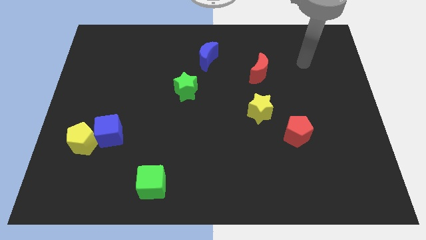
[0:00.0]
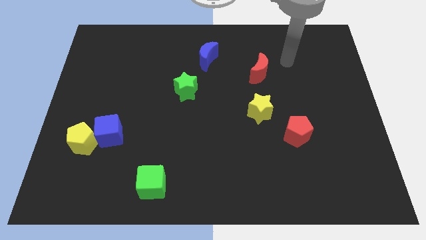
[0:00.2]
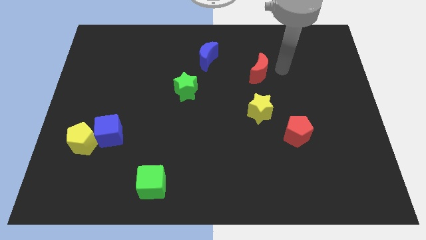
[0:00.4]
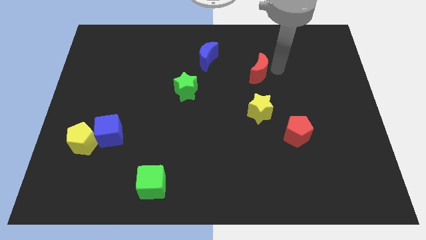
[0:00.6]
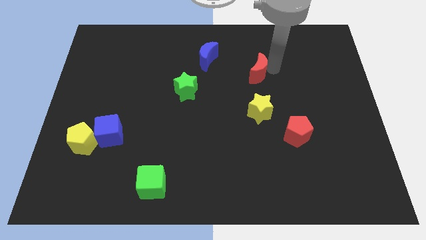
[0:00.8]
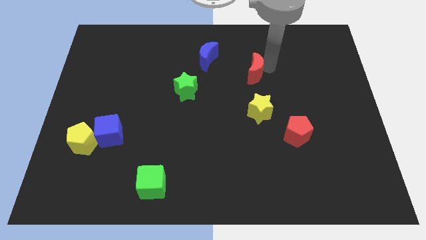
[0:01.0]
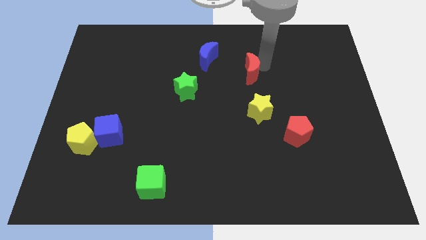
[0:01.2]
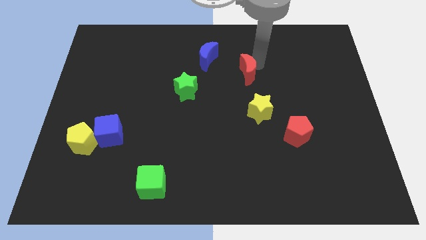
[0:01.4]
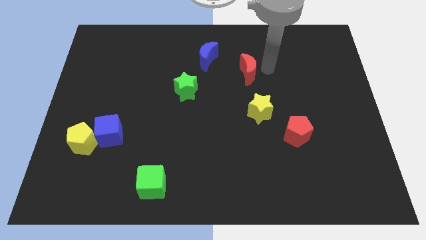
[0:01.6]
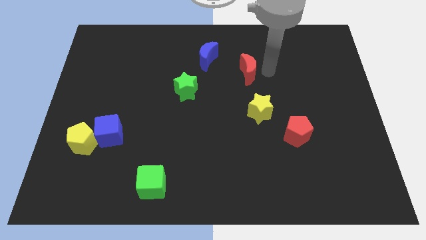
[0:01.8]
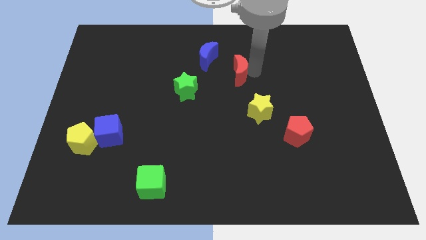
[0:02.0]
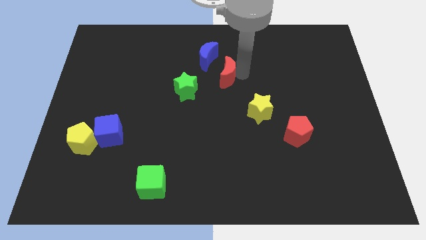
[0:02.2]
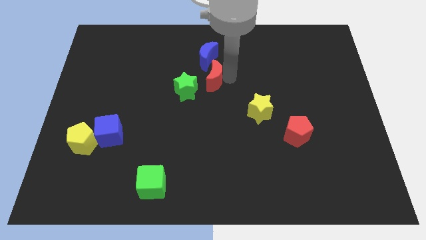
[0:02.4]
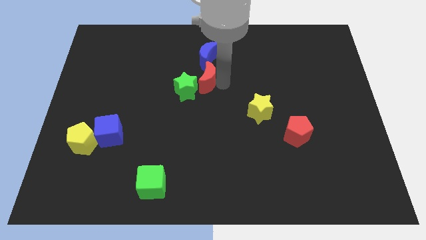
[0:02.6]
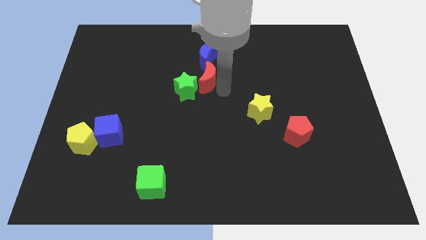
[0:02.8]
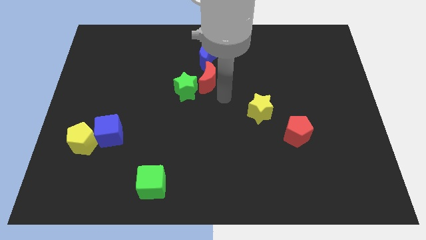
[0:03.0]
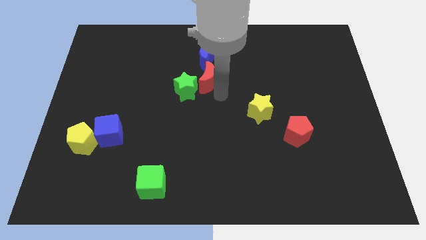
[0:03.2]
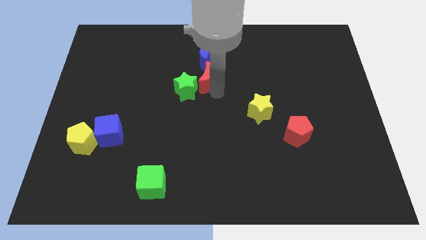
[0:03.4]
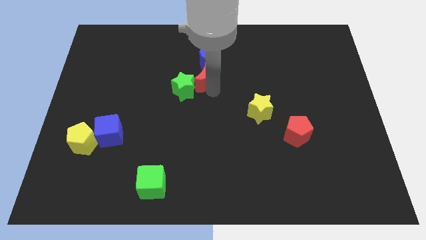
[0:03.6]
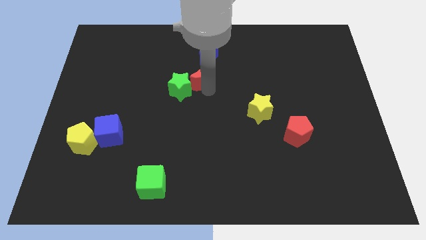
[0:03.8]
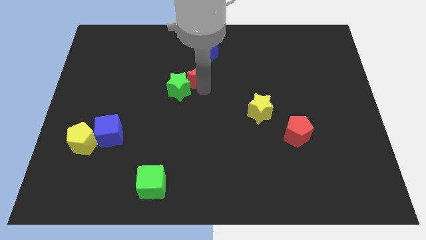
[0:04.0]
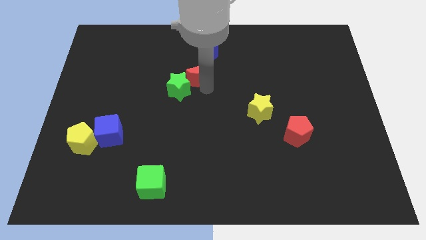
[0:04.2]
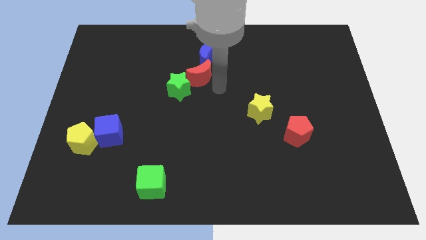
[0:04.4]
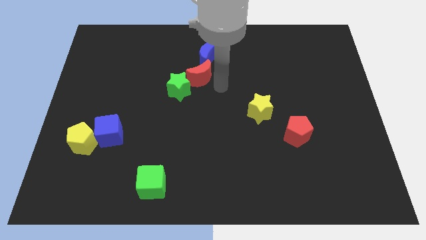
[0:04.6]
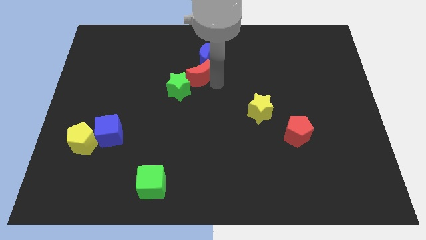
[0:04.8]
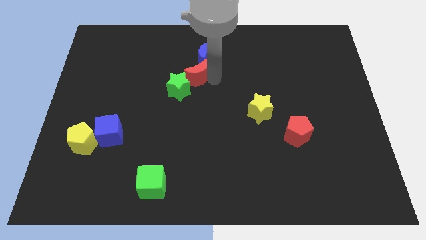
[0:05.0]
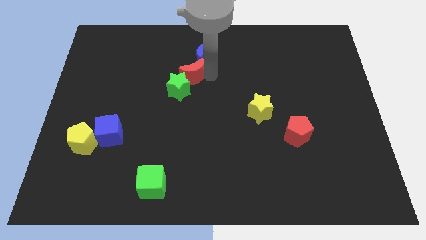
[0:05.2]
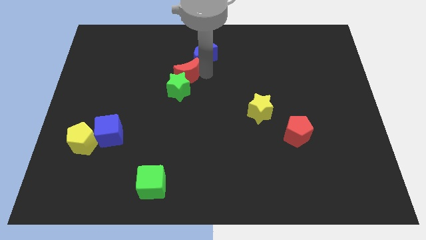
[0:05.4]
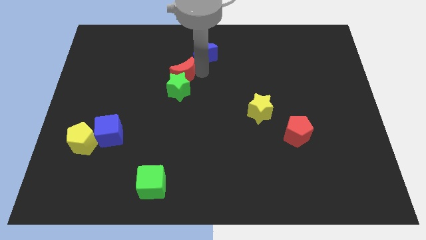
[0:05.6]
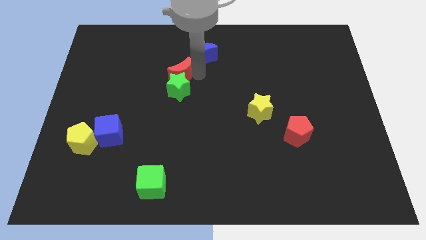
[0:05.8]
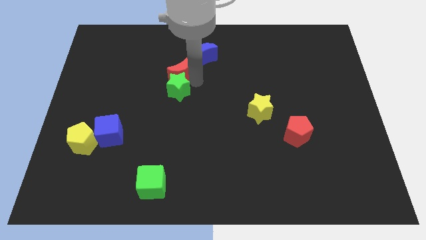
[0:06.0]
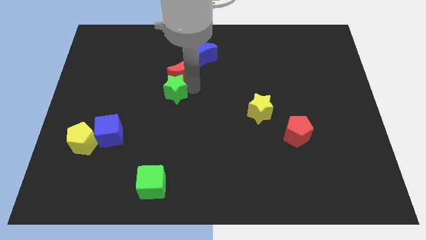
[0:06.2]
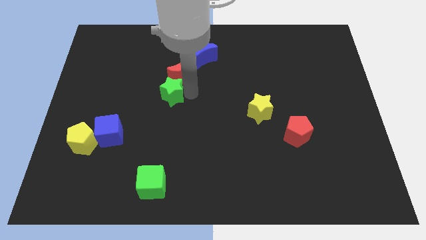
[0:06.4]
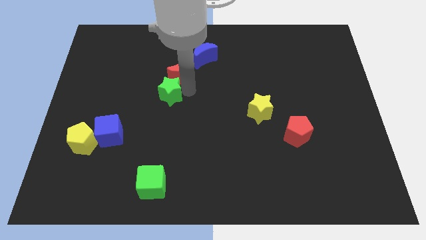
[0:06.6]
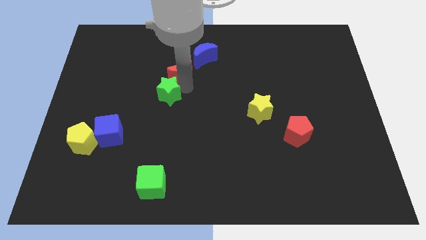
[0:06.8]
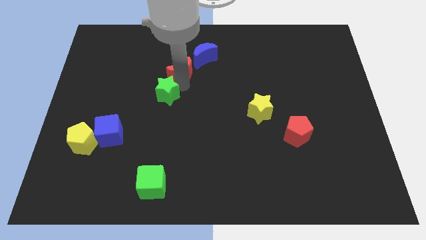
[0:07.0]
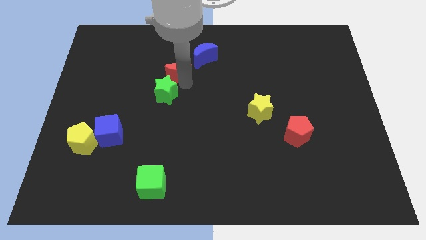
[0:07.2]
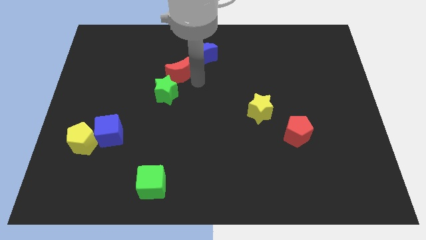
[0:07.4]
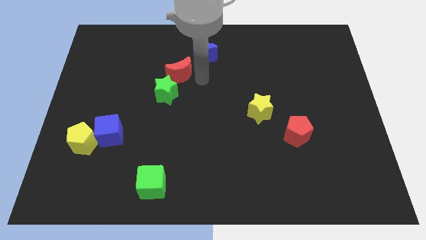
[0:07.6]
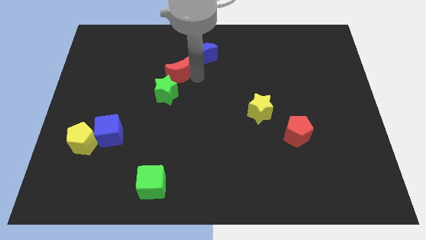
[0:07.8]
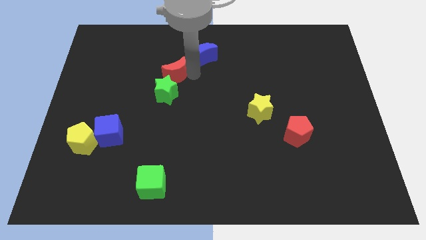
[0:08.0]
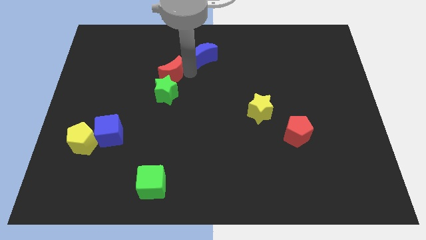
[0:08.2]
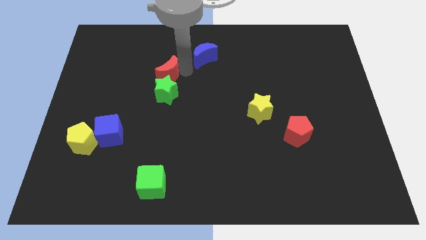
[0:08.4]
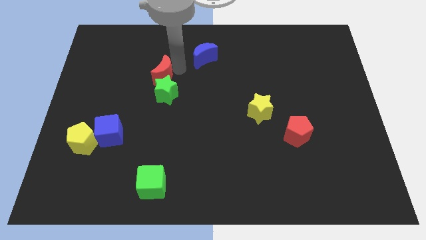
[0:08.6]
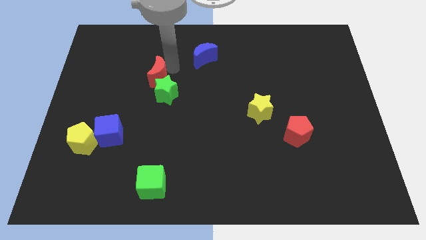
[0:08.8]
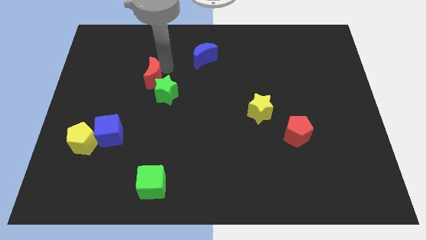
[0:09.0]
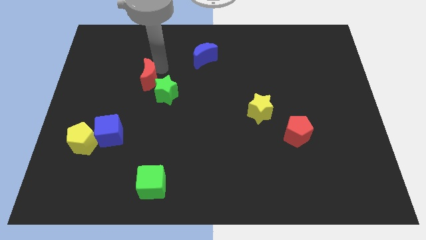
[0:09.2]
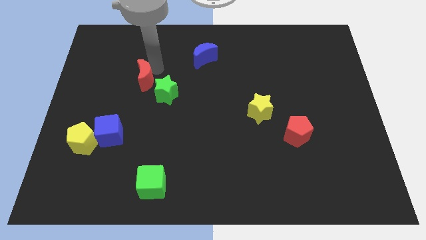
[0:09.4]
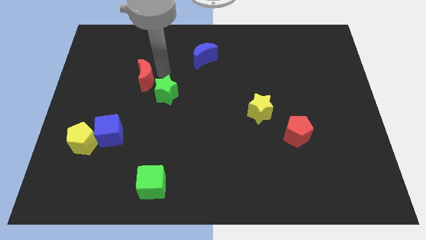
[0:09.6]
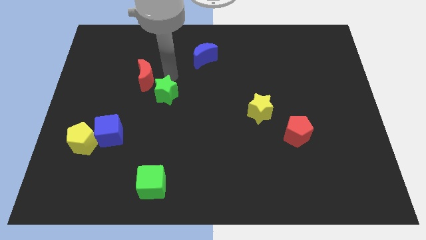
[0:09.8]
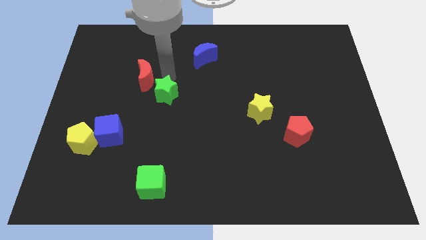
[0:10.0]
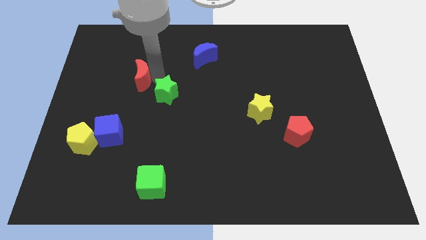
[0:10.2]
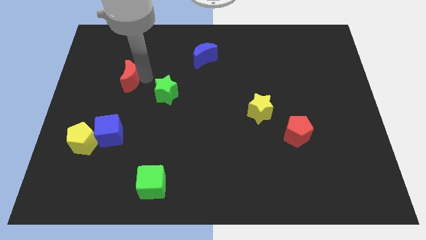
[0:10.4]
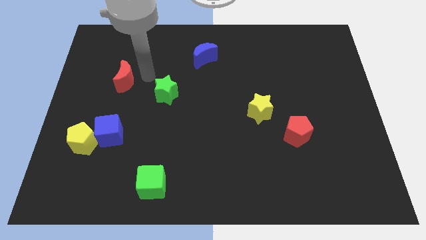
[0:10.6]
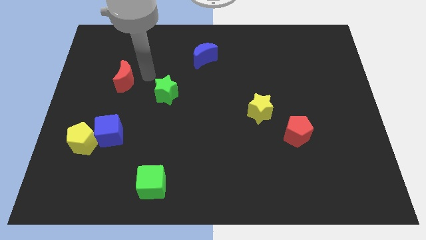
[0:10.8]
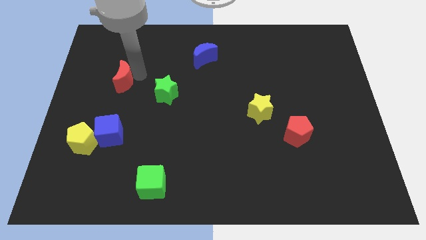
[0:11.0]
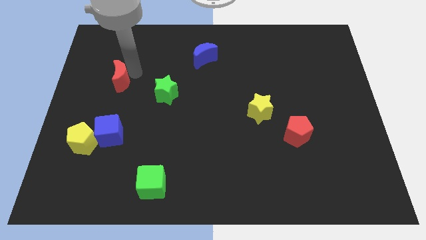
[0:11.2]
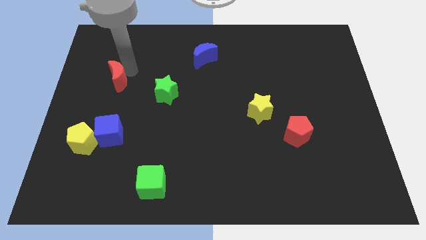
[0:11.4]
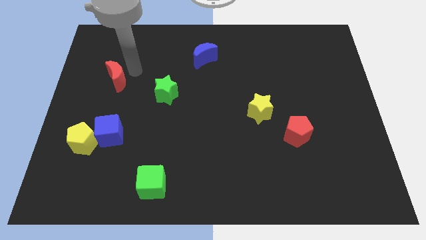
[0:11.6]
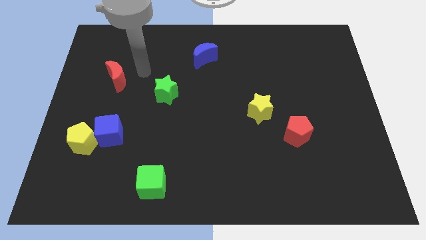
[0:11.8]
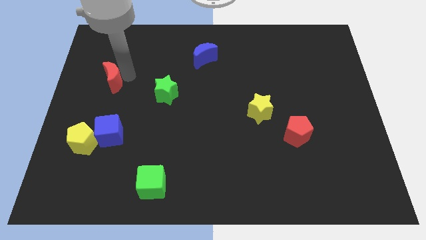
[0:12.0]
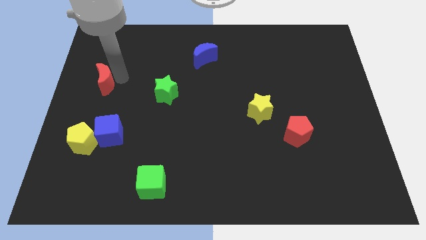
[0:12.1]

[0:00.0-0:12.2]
move the red moon to the left side

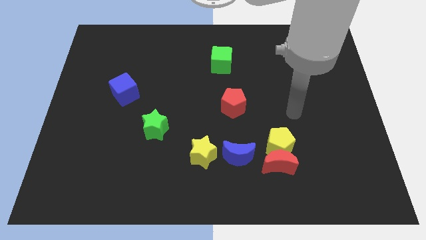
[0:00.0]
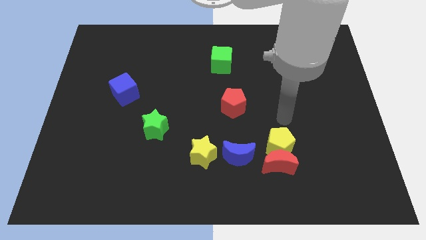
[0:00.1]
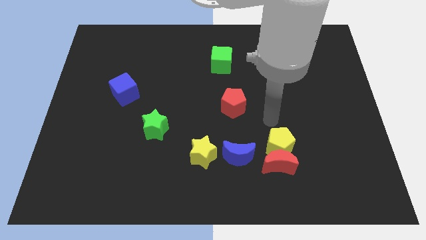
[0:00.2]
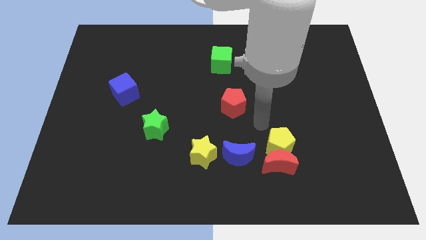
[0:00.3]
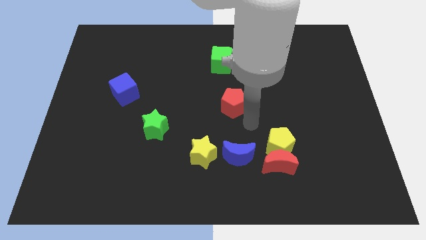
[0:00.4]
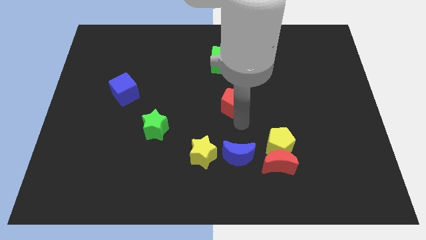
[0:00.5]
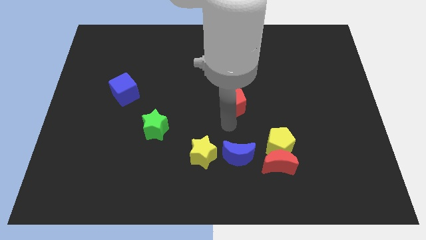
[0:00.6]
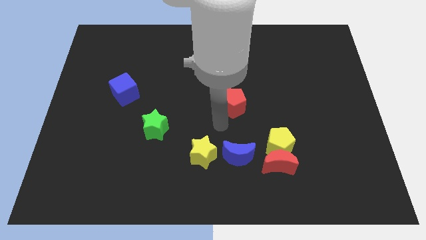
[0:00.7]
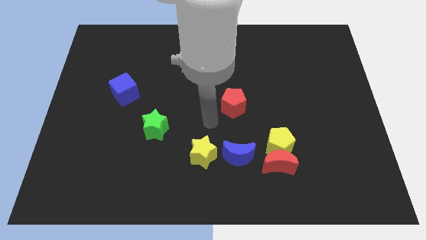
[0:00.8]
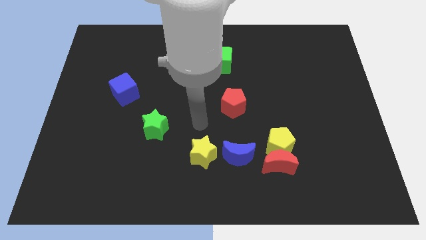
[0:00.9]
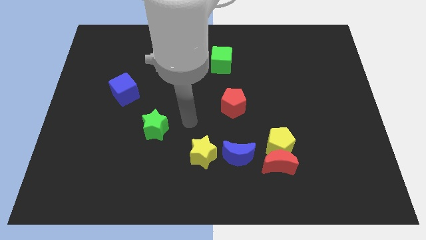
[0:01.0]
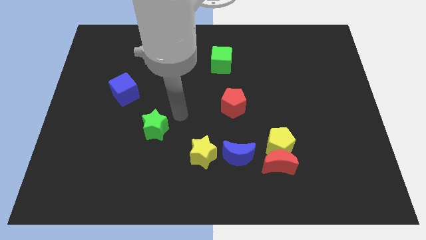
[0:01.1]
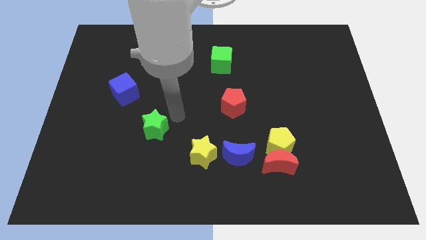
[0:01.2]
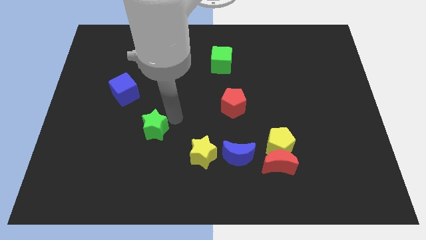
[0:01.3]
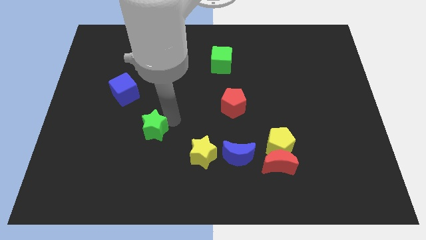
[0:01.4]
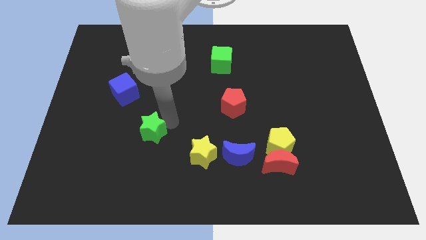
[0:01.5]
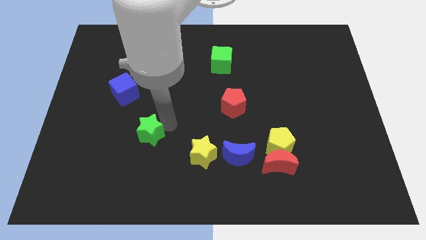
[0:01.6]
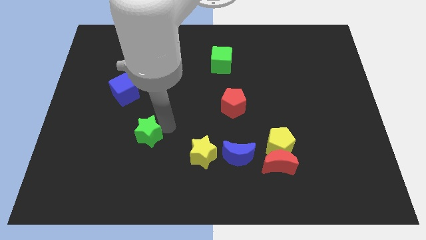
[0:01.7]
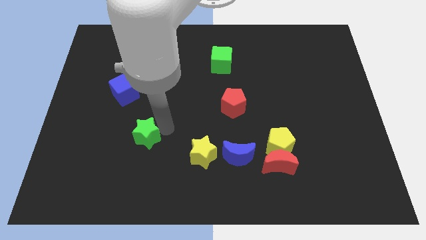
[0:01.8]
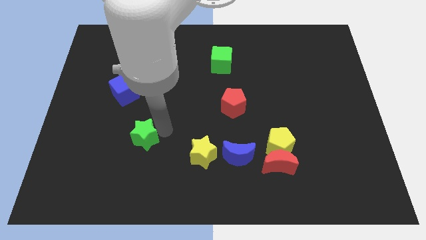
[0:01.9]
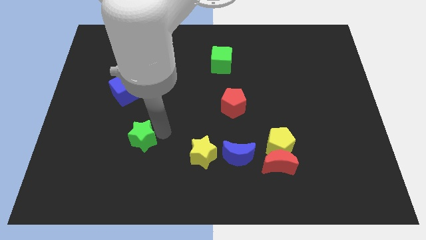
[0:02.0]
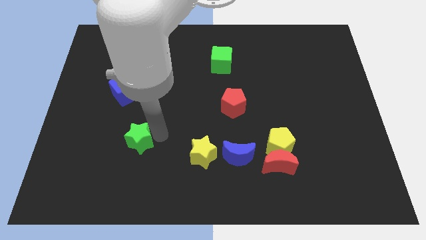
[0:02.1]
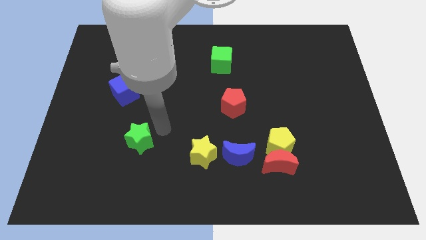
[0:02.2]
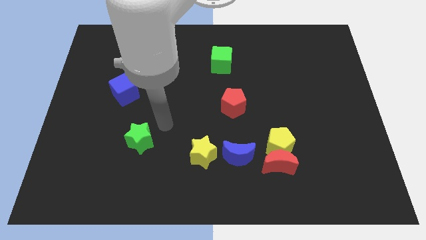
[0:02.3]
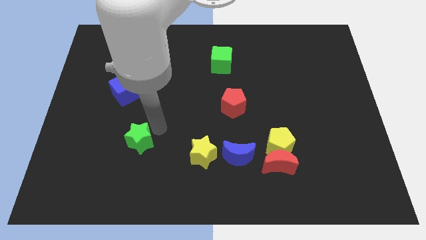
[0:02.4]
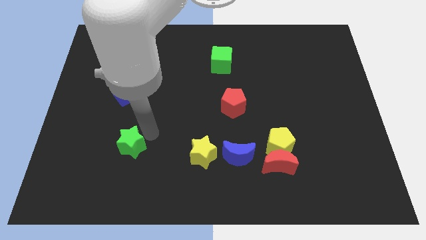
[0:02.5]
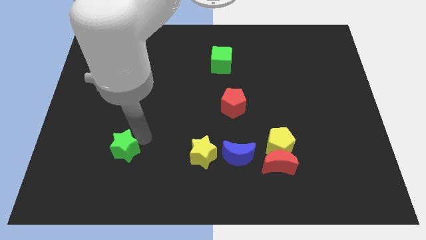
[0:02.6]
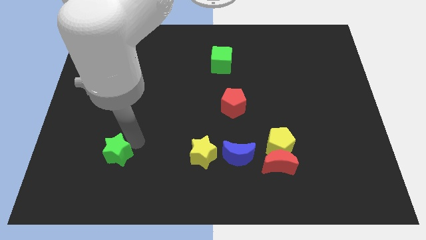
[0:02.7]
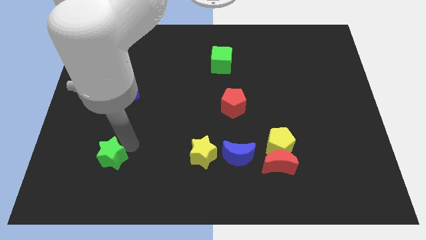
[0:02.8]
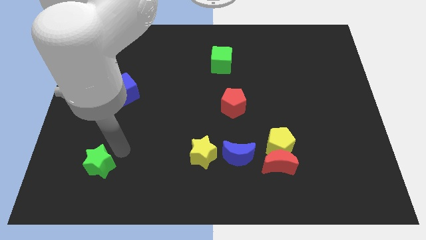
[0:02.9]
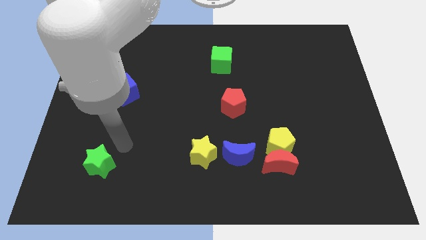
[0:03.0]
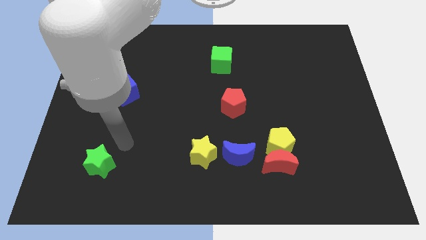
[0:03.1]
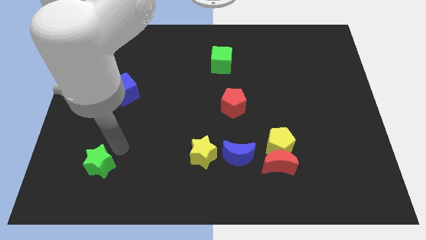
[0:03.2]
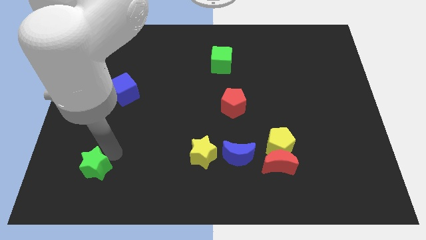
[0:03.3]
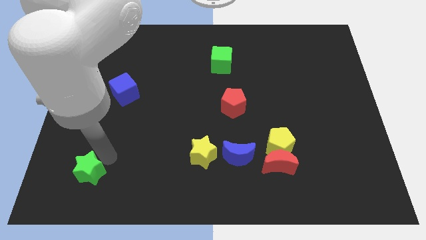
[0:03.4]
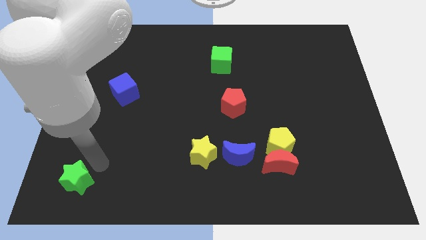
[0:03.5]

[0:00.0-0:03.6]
push the green star to the bottom left
